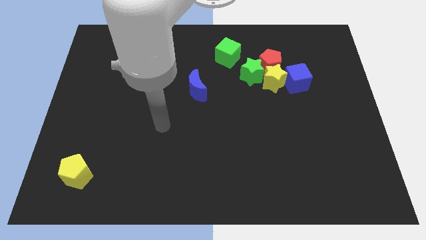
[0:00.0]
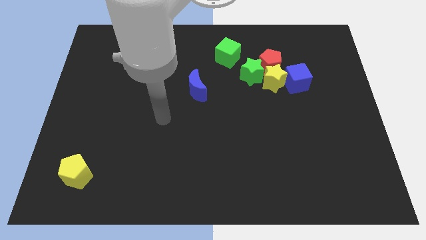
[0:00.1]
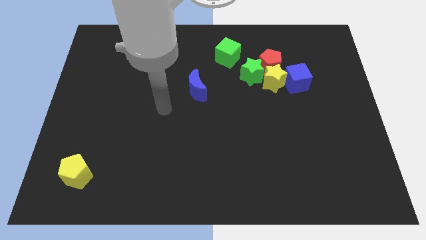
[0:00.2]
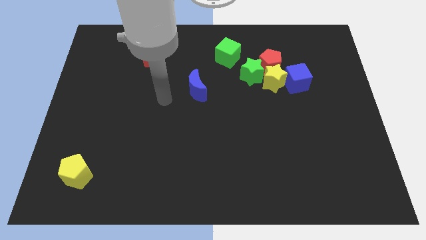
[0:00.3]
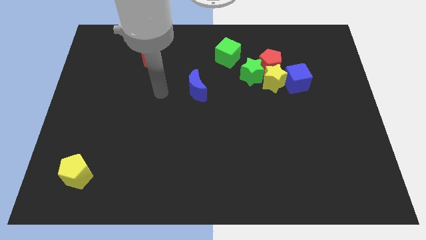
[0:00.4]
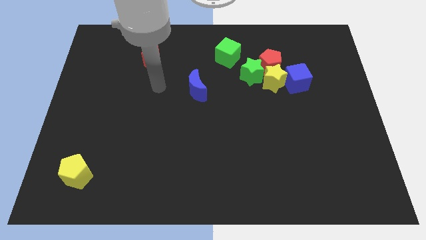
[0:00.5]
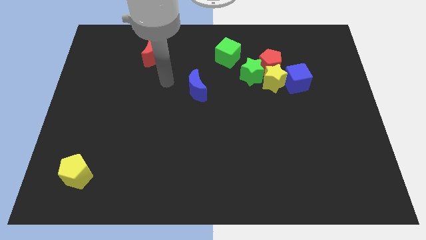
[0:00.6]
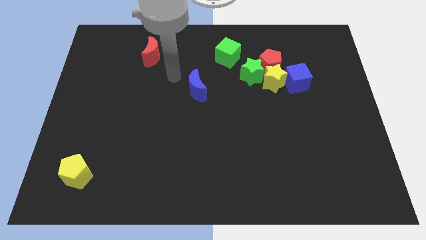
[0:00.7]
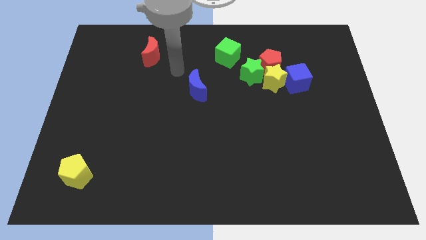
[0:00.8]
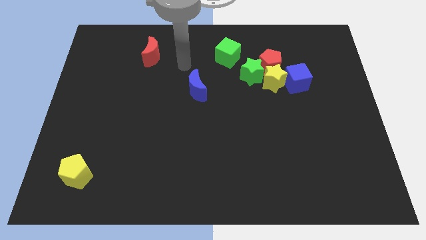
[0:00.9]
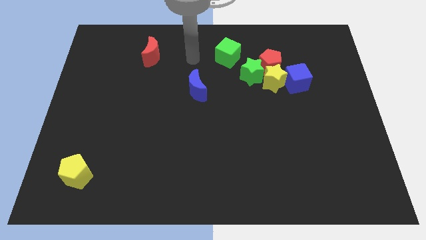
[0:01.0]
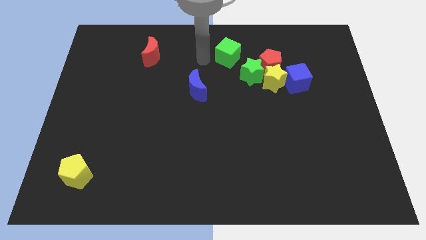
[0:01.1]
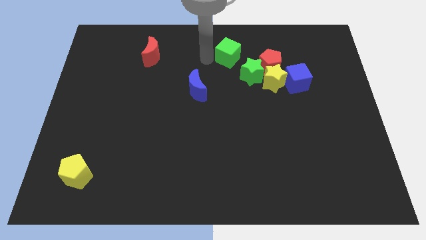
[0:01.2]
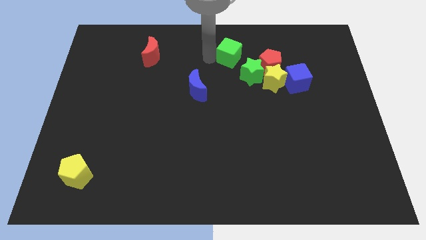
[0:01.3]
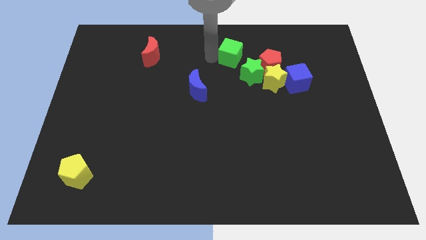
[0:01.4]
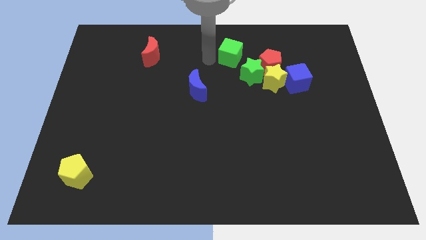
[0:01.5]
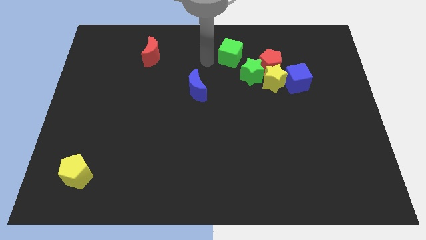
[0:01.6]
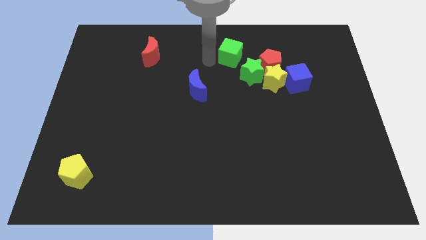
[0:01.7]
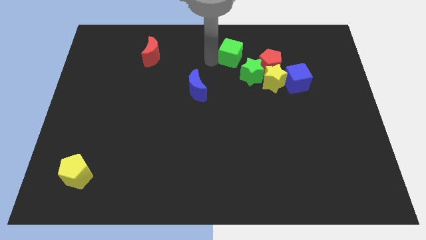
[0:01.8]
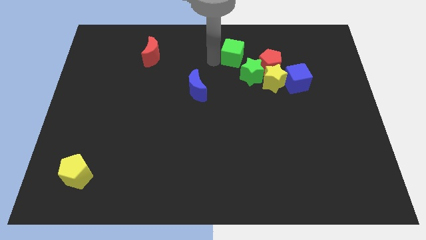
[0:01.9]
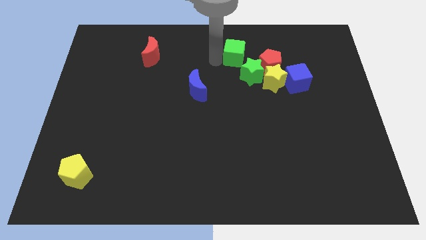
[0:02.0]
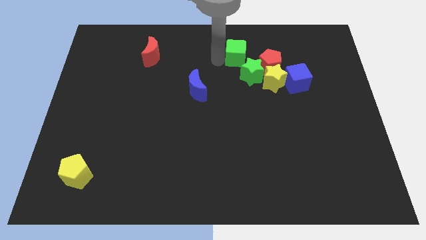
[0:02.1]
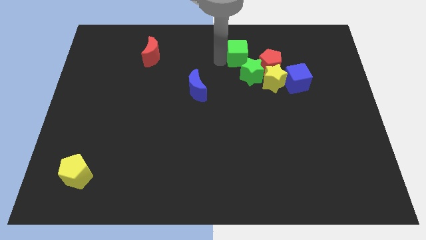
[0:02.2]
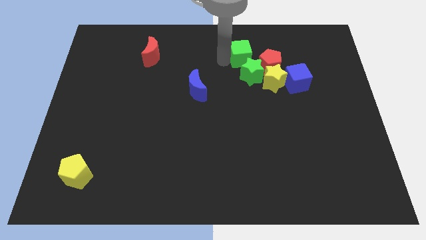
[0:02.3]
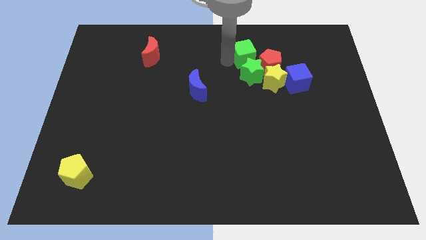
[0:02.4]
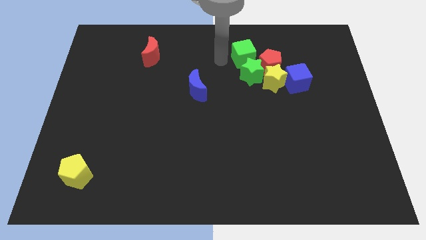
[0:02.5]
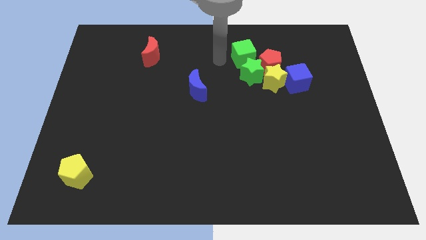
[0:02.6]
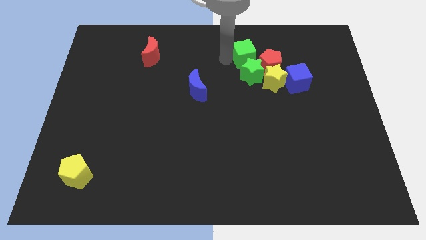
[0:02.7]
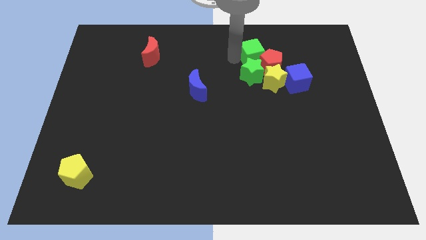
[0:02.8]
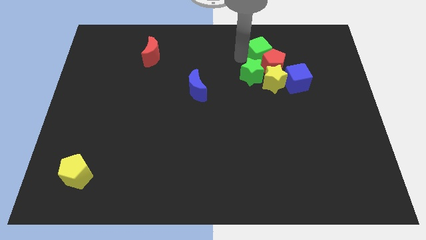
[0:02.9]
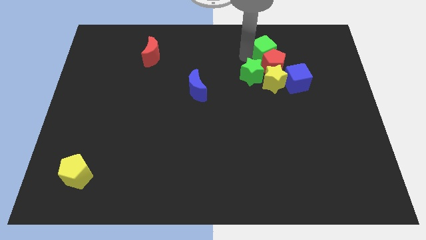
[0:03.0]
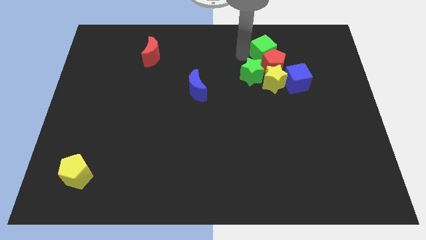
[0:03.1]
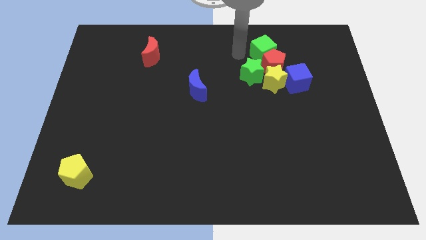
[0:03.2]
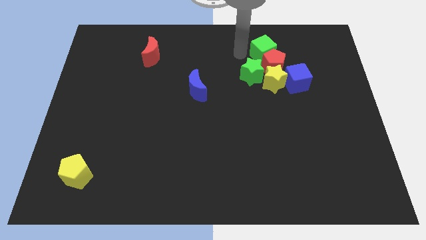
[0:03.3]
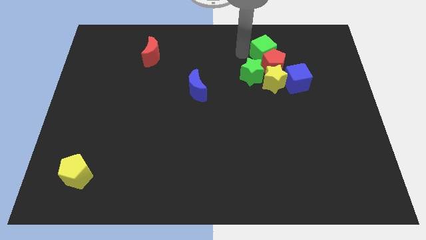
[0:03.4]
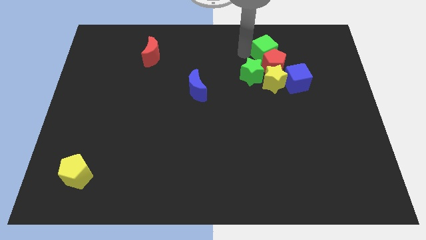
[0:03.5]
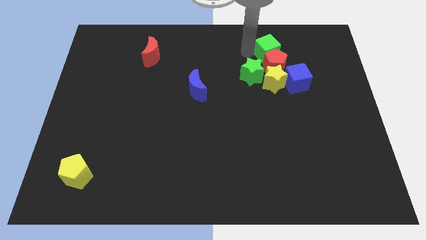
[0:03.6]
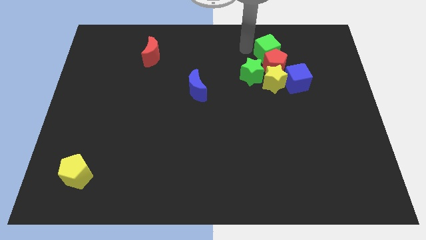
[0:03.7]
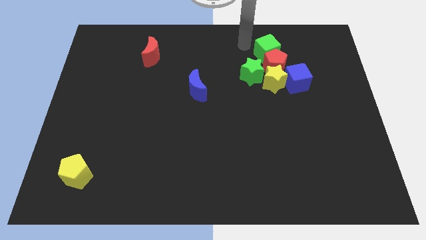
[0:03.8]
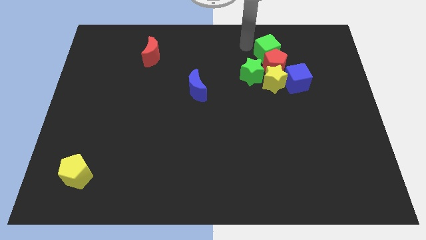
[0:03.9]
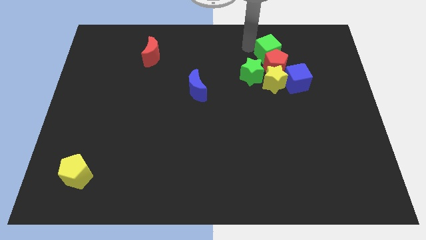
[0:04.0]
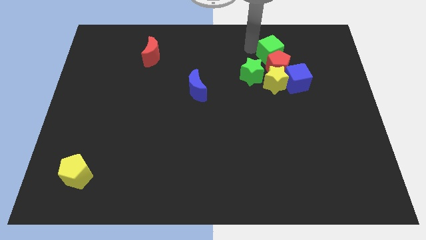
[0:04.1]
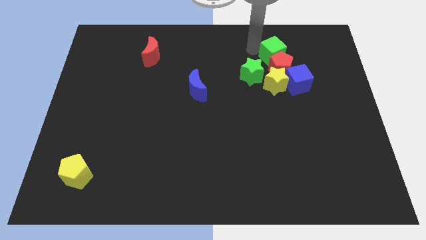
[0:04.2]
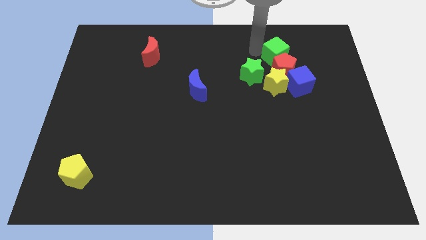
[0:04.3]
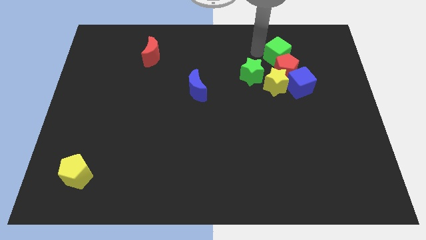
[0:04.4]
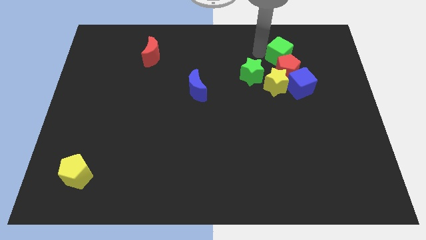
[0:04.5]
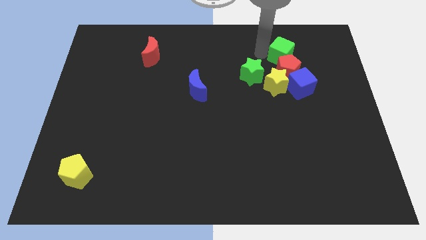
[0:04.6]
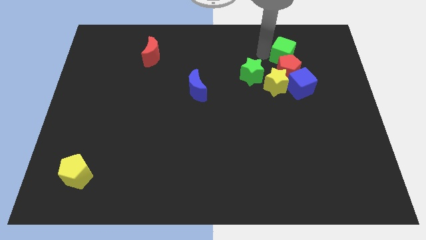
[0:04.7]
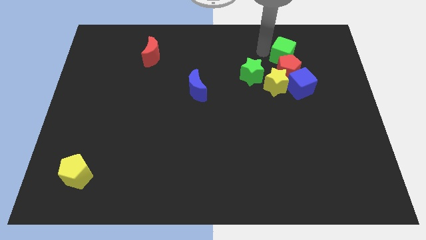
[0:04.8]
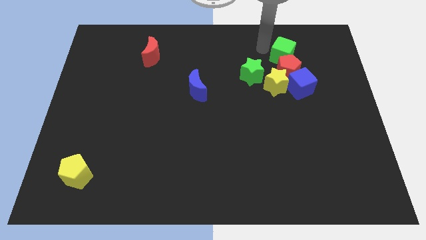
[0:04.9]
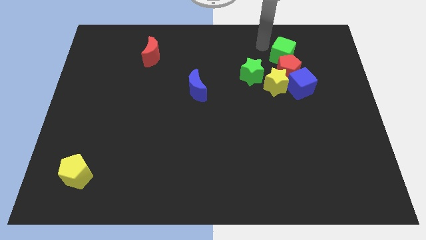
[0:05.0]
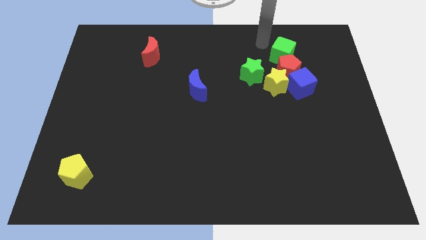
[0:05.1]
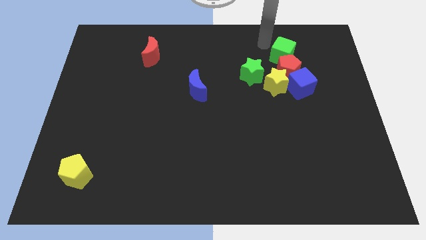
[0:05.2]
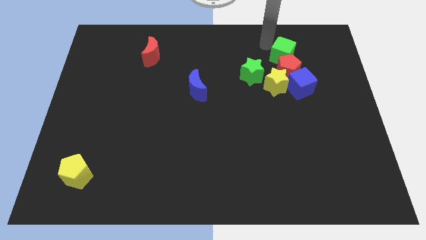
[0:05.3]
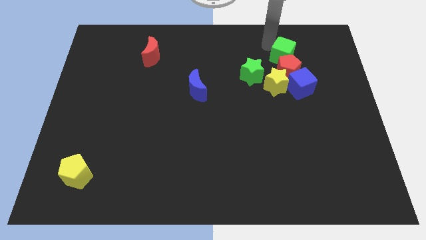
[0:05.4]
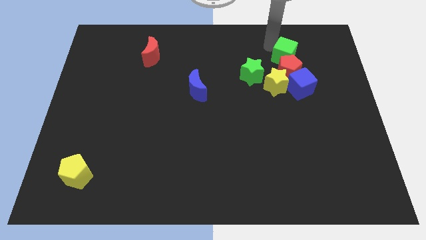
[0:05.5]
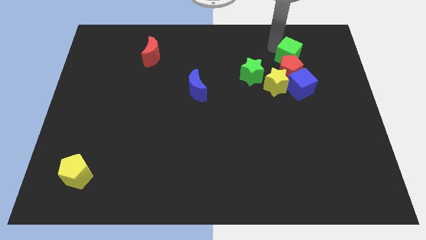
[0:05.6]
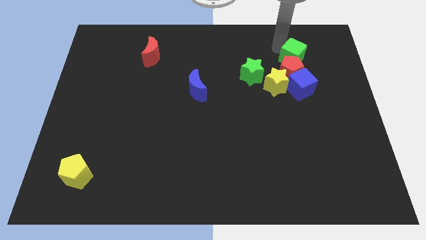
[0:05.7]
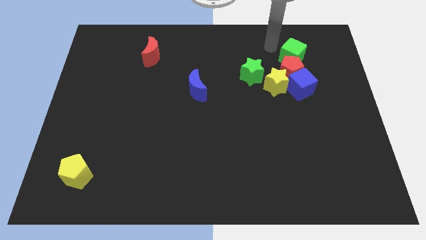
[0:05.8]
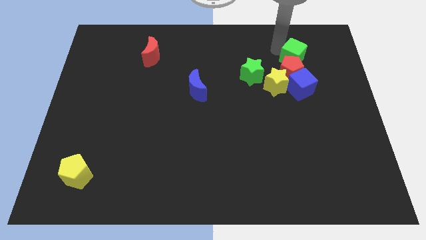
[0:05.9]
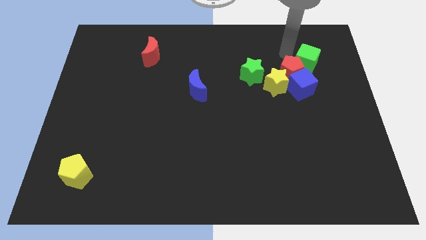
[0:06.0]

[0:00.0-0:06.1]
push the green cube to the right of the red pentagon

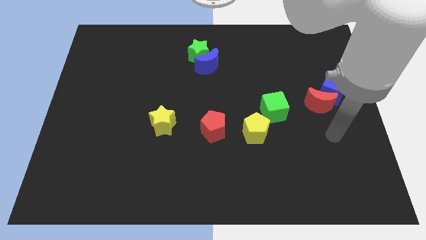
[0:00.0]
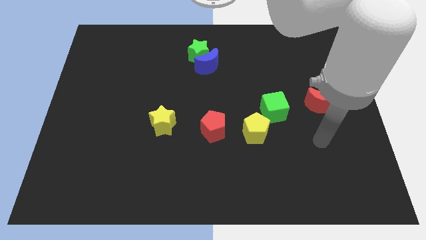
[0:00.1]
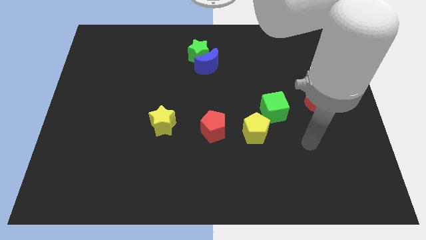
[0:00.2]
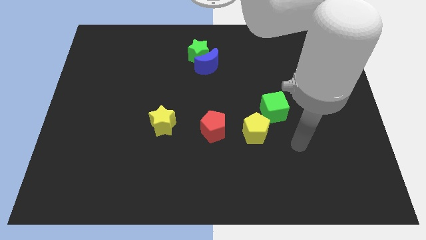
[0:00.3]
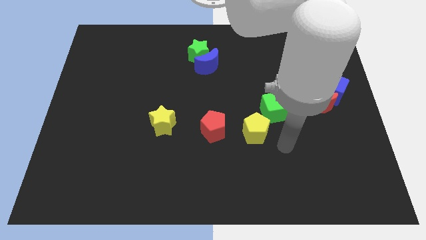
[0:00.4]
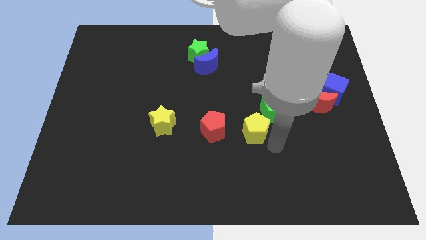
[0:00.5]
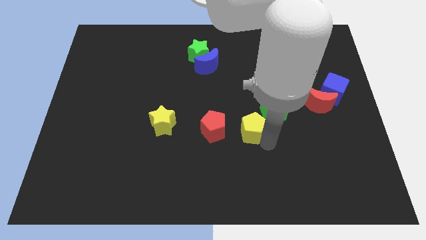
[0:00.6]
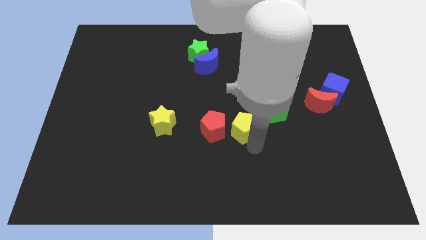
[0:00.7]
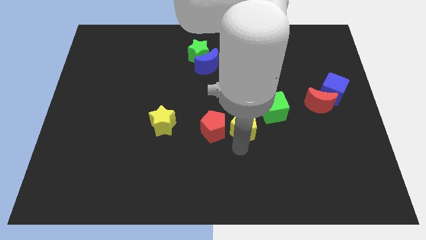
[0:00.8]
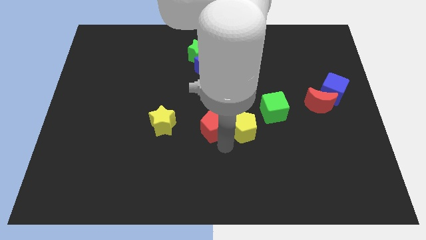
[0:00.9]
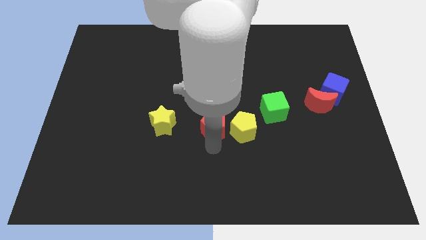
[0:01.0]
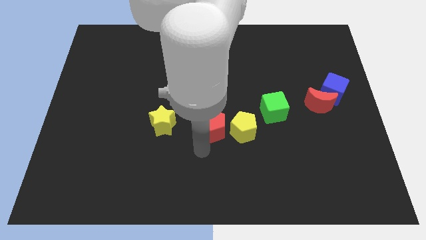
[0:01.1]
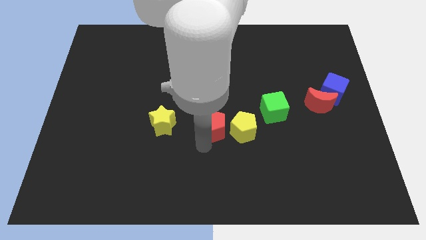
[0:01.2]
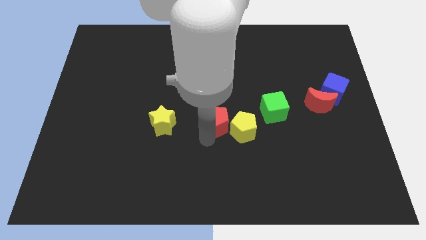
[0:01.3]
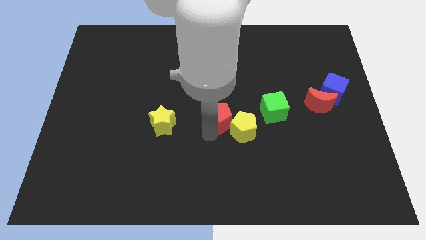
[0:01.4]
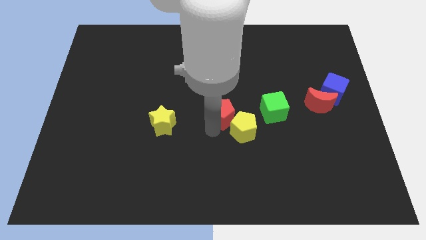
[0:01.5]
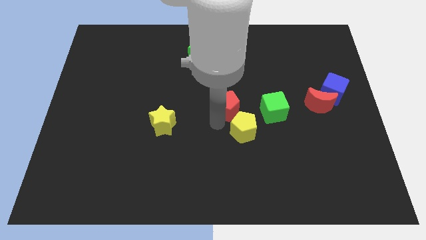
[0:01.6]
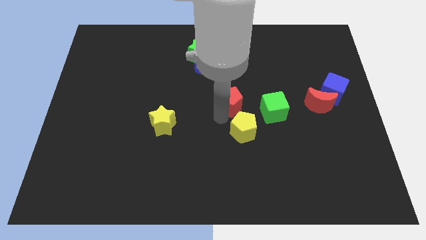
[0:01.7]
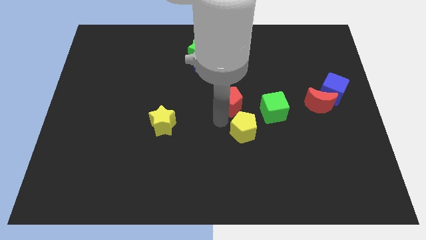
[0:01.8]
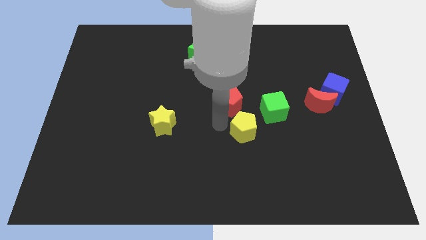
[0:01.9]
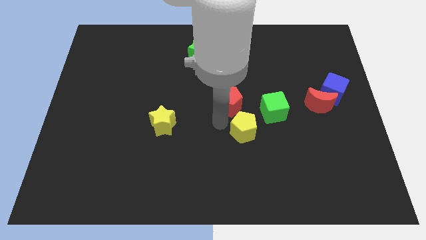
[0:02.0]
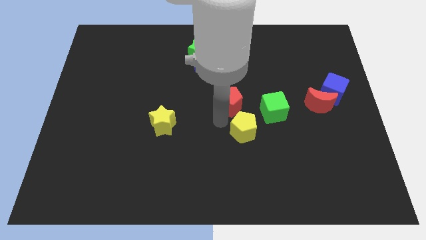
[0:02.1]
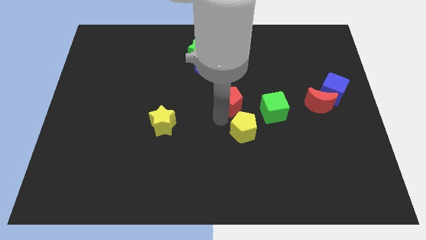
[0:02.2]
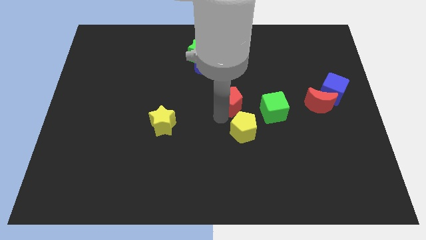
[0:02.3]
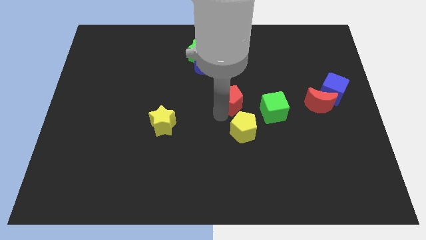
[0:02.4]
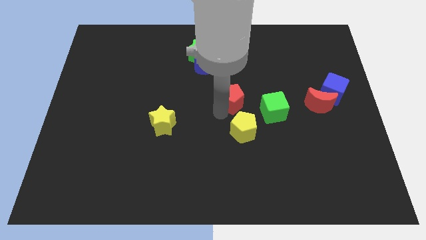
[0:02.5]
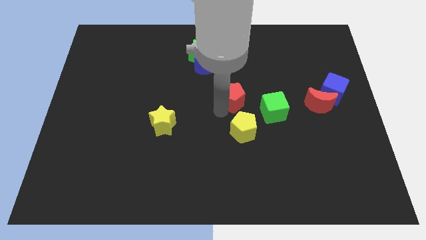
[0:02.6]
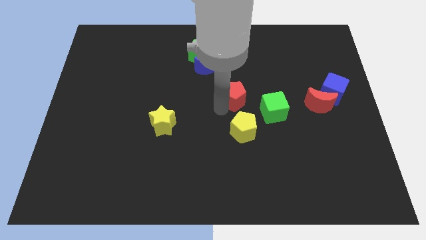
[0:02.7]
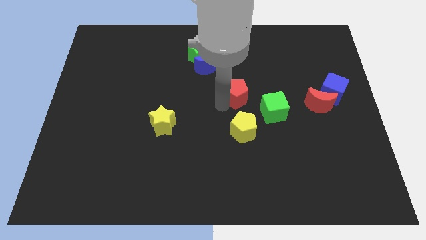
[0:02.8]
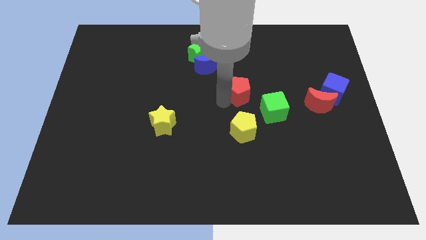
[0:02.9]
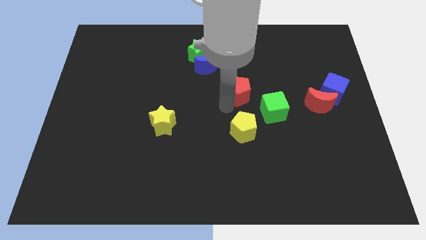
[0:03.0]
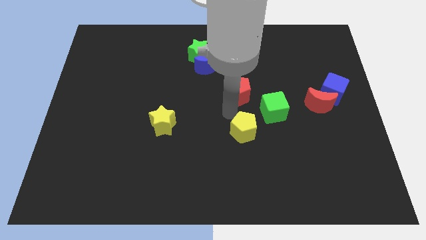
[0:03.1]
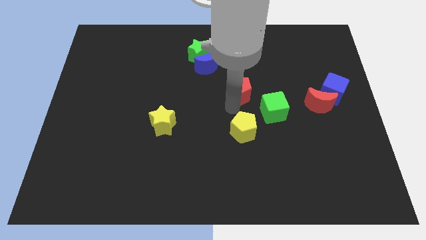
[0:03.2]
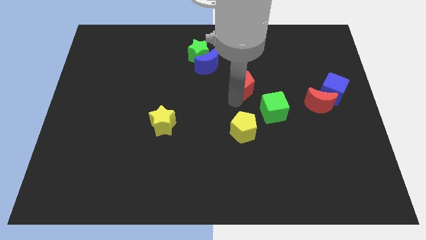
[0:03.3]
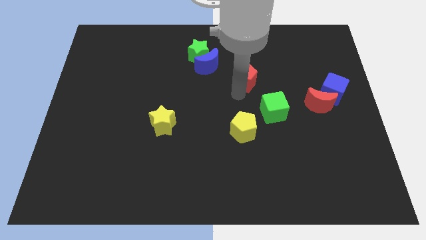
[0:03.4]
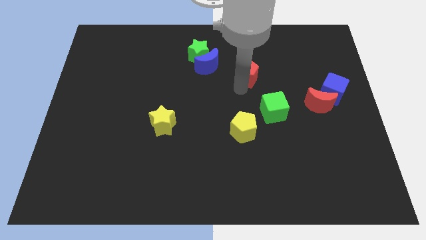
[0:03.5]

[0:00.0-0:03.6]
slide the red pentagon to the right side of the blue moon
